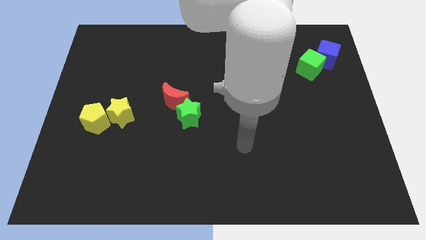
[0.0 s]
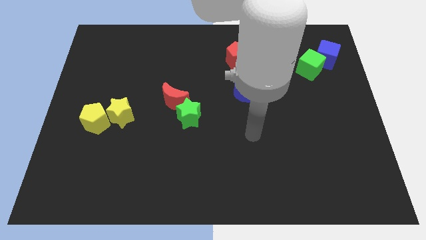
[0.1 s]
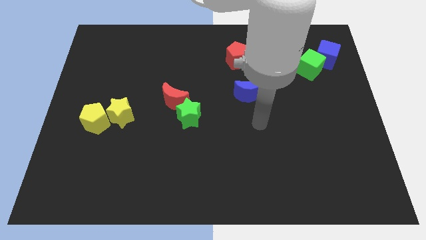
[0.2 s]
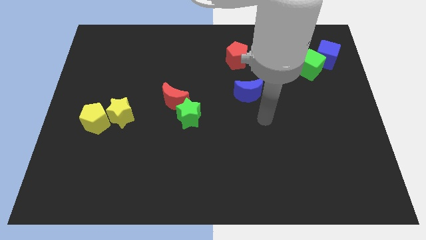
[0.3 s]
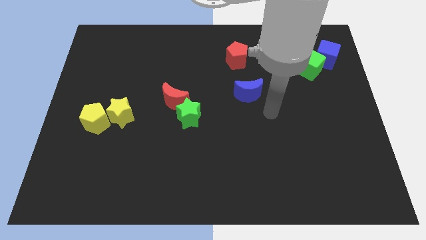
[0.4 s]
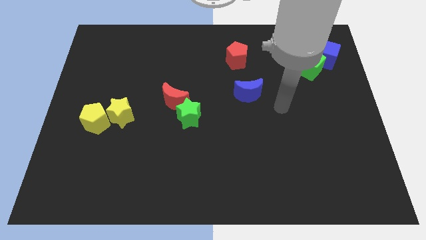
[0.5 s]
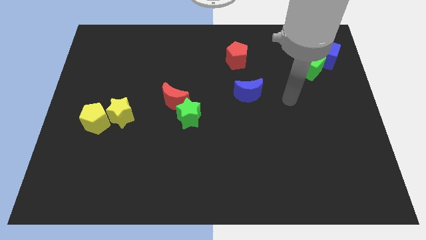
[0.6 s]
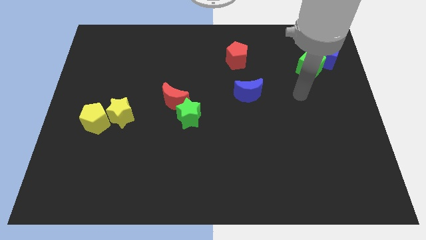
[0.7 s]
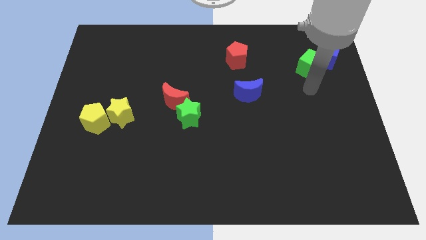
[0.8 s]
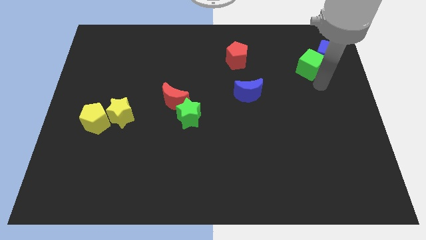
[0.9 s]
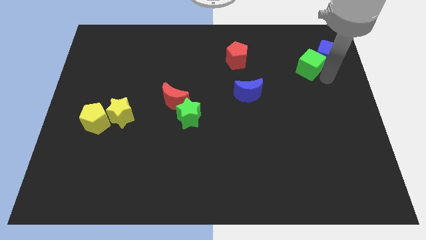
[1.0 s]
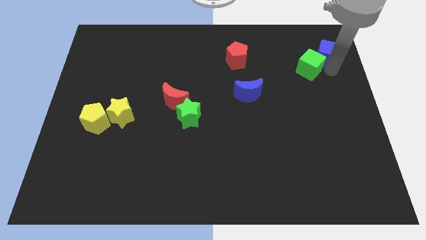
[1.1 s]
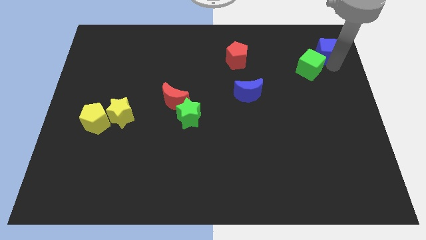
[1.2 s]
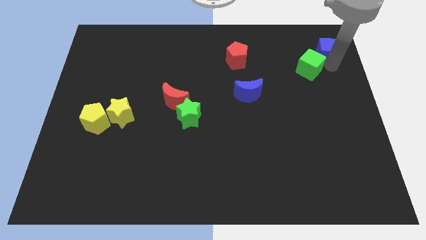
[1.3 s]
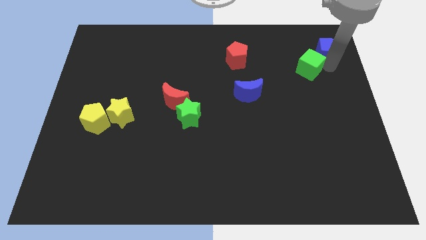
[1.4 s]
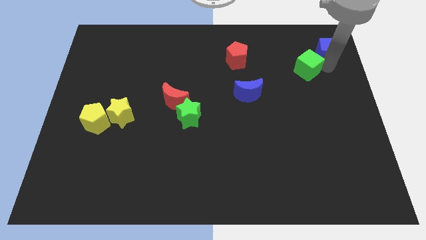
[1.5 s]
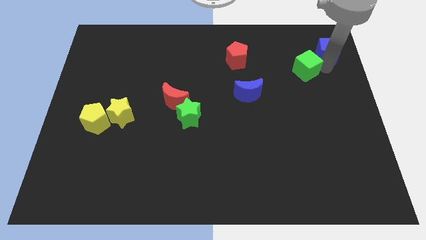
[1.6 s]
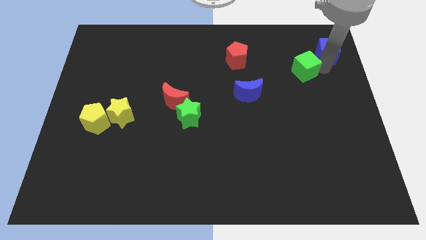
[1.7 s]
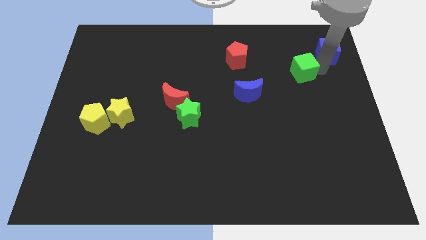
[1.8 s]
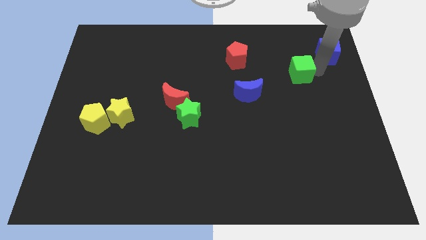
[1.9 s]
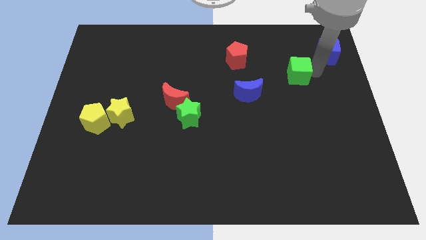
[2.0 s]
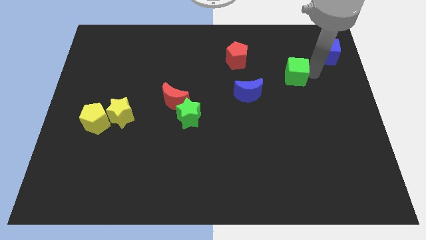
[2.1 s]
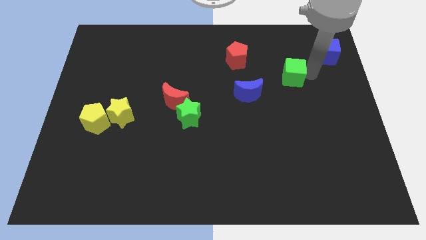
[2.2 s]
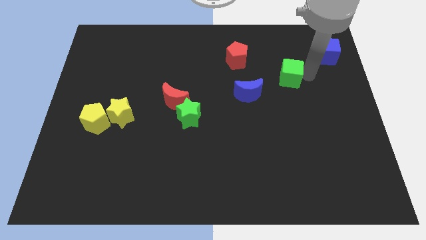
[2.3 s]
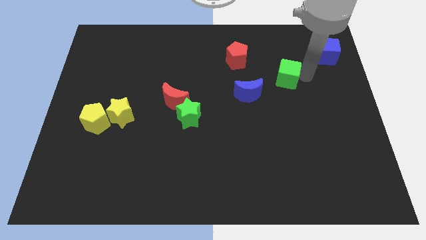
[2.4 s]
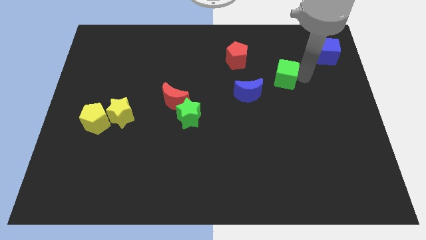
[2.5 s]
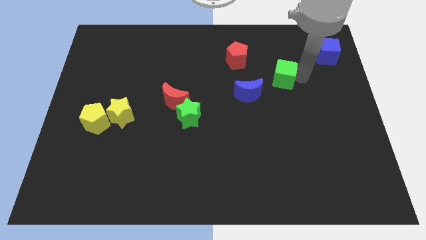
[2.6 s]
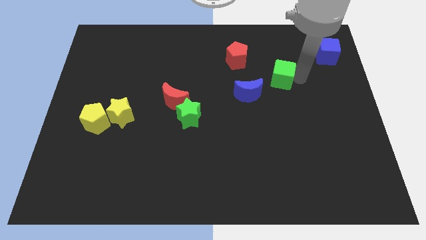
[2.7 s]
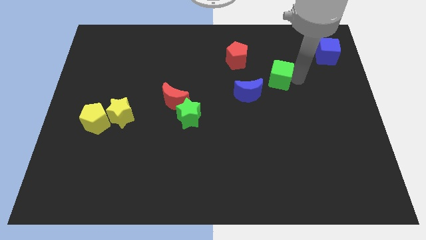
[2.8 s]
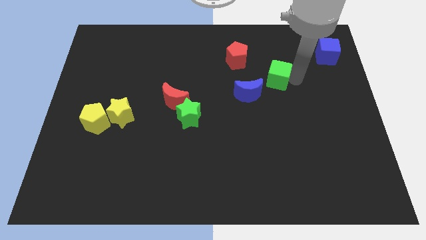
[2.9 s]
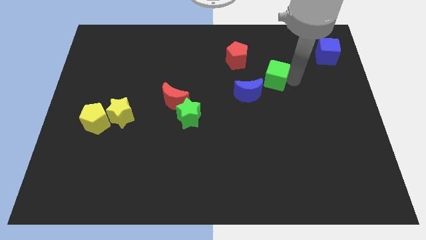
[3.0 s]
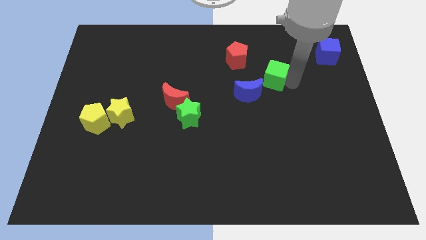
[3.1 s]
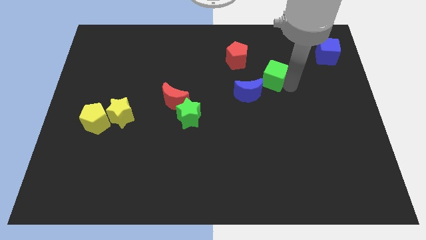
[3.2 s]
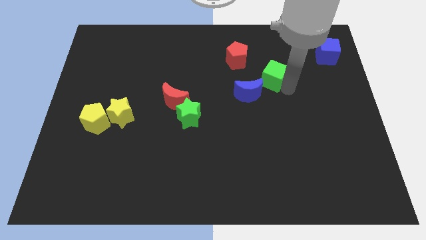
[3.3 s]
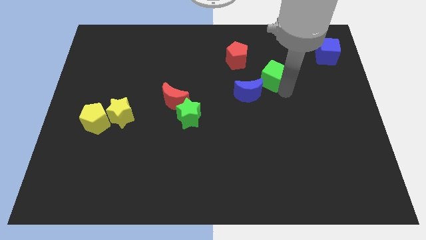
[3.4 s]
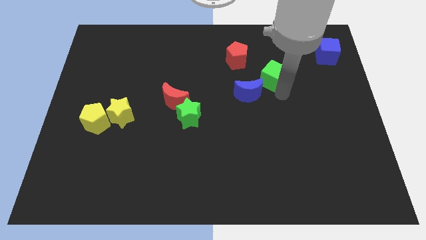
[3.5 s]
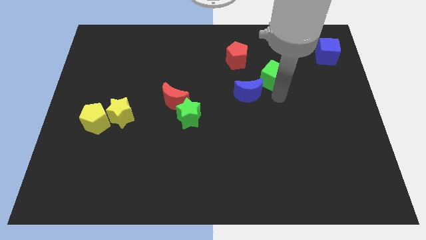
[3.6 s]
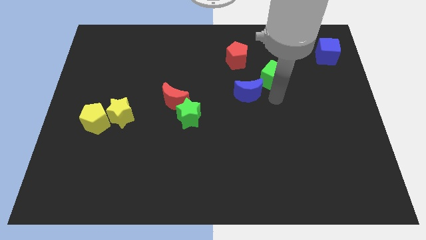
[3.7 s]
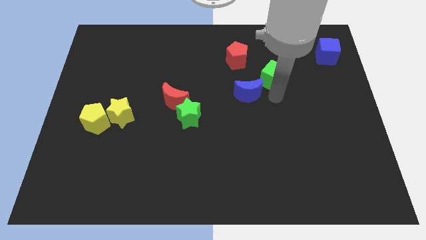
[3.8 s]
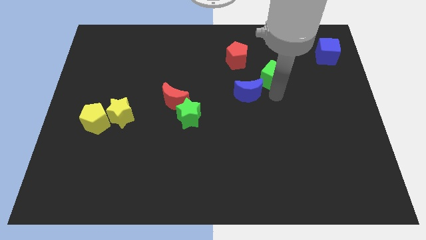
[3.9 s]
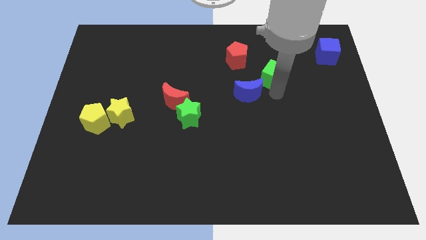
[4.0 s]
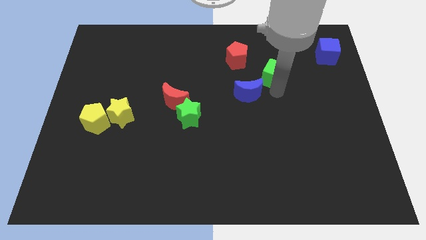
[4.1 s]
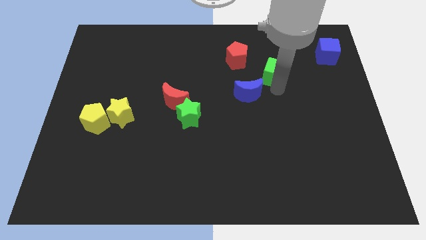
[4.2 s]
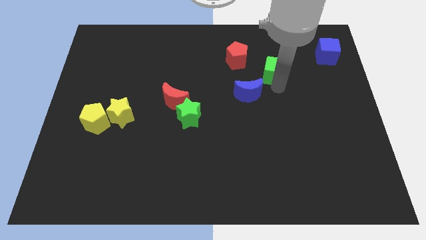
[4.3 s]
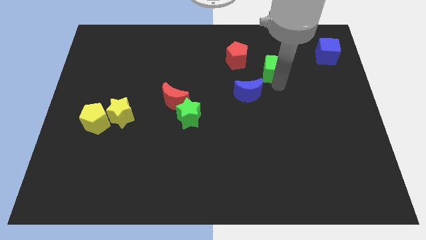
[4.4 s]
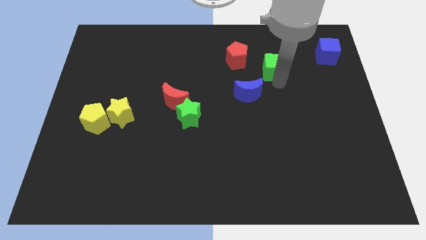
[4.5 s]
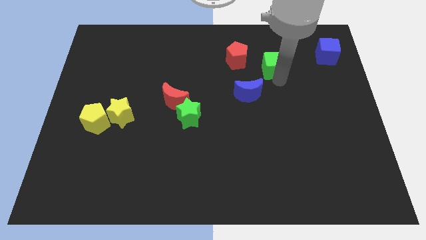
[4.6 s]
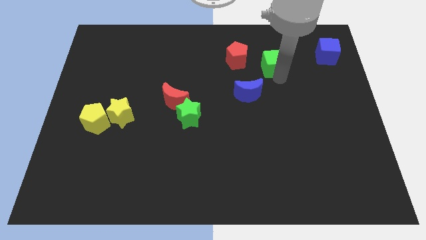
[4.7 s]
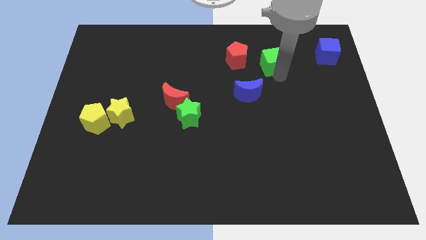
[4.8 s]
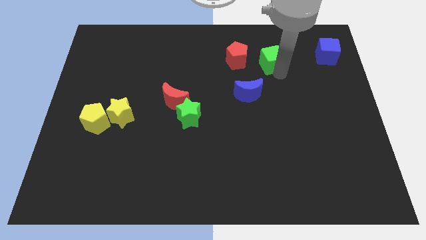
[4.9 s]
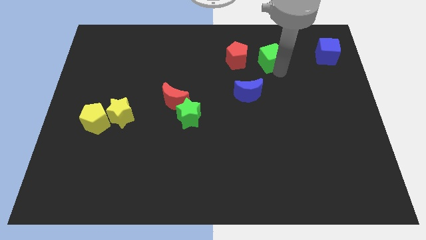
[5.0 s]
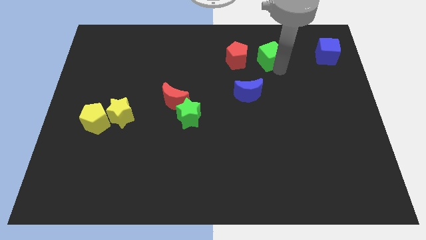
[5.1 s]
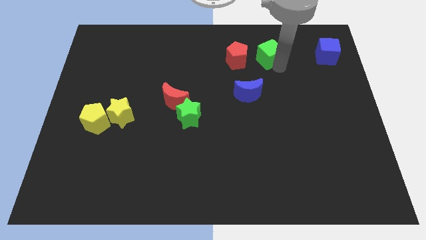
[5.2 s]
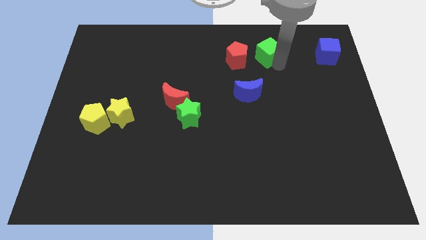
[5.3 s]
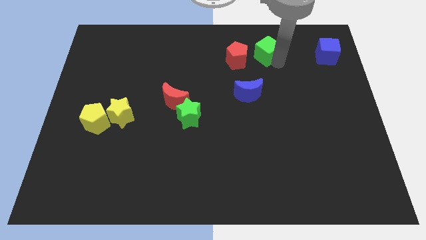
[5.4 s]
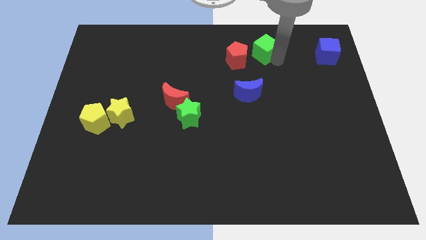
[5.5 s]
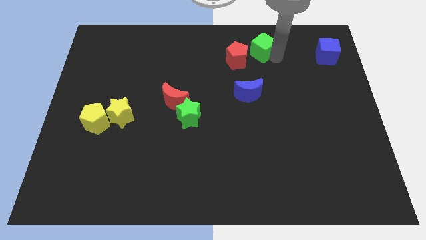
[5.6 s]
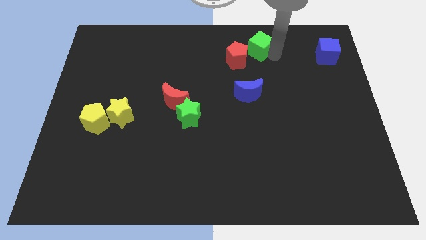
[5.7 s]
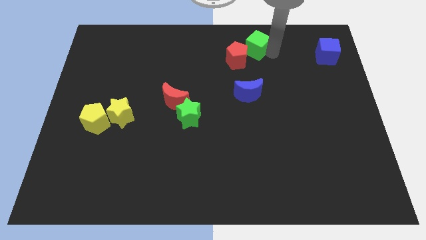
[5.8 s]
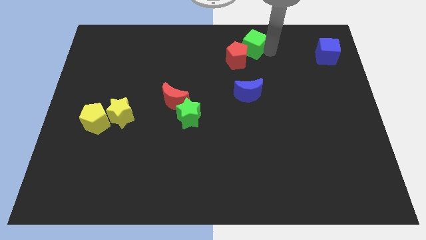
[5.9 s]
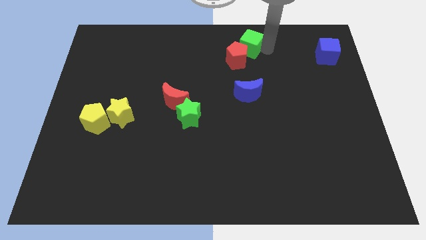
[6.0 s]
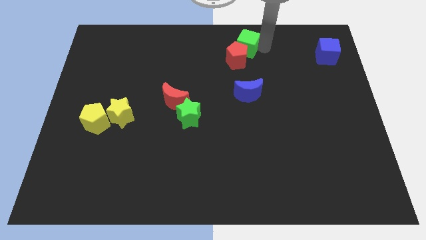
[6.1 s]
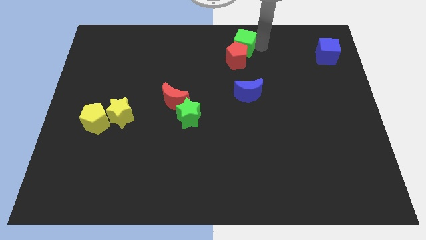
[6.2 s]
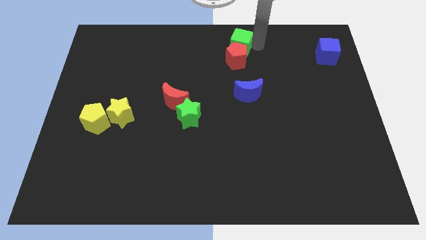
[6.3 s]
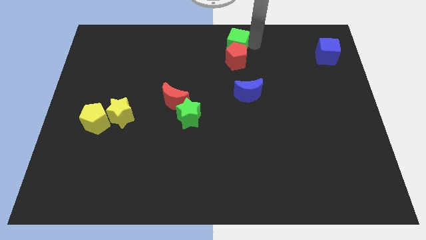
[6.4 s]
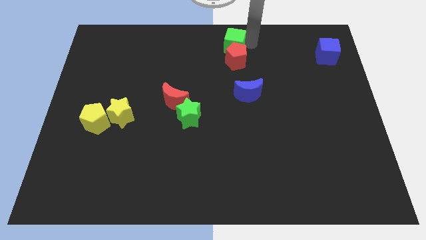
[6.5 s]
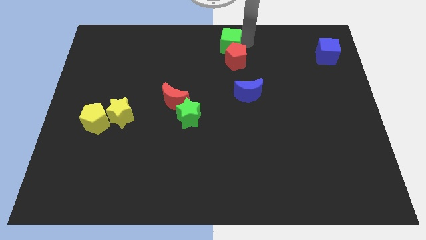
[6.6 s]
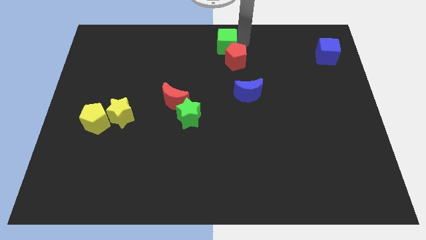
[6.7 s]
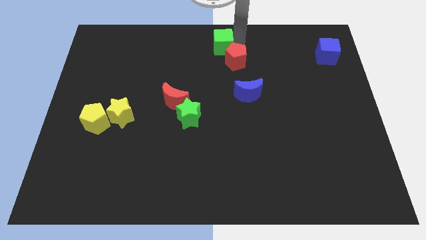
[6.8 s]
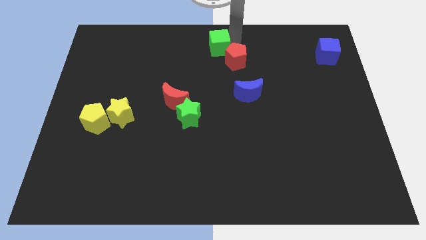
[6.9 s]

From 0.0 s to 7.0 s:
slide the green cube to the left

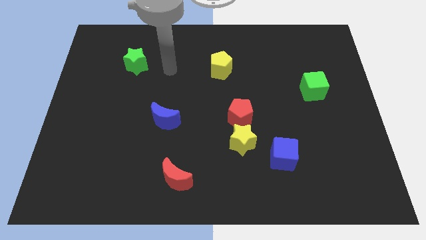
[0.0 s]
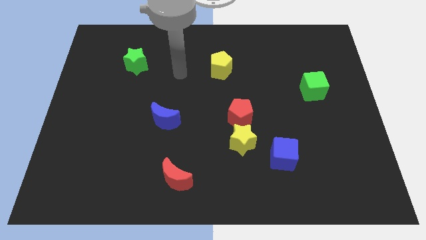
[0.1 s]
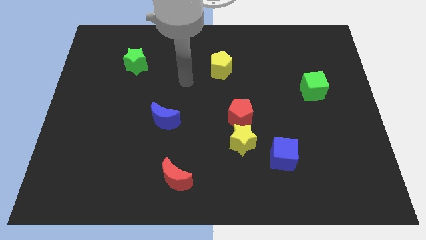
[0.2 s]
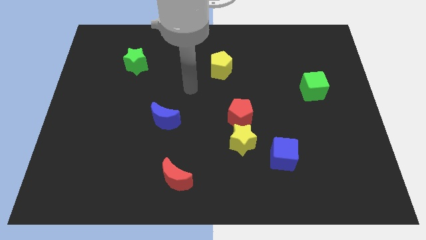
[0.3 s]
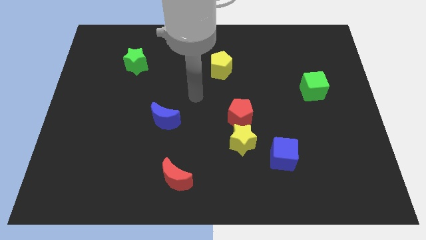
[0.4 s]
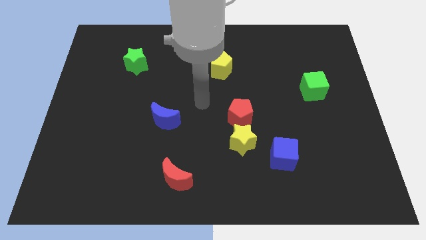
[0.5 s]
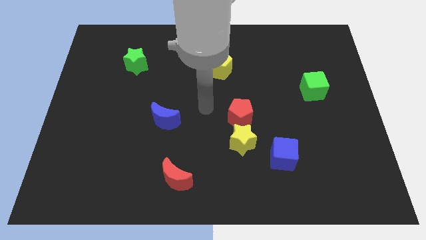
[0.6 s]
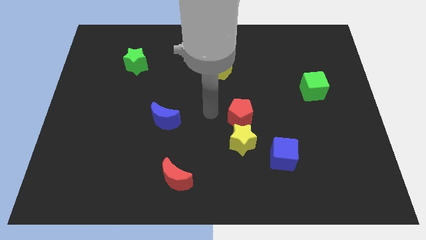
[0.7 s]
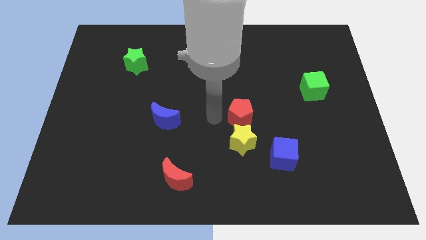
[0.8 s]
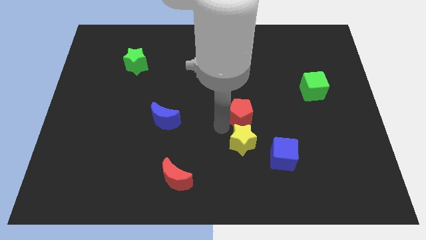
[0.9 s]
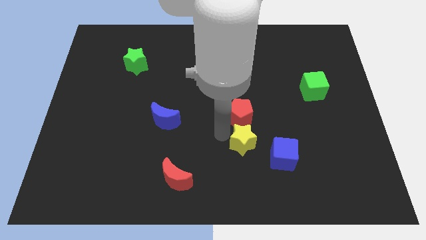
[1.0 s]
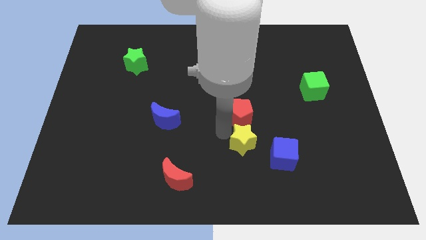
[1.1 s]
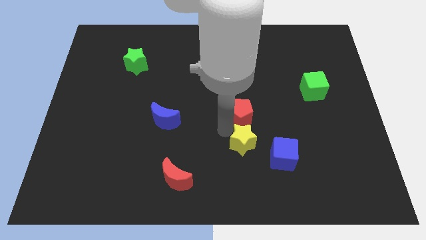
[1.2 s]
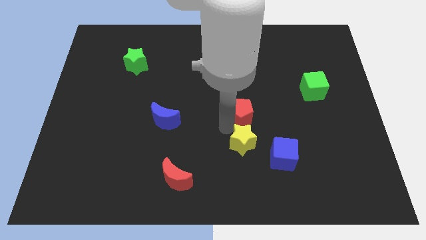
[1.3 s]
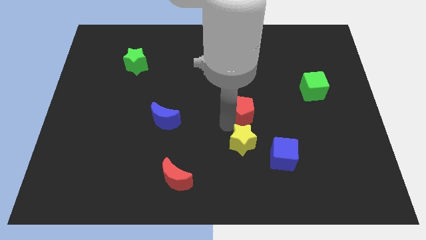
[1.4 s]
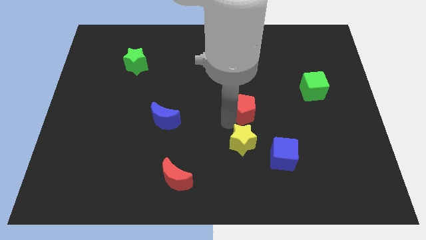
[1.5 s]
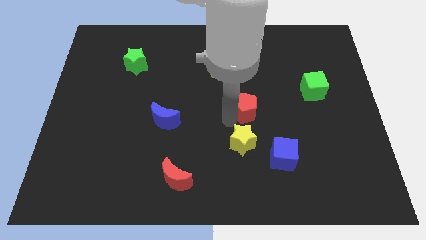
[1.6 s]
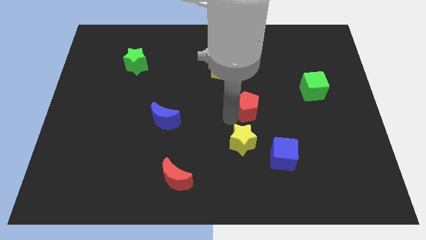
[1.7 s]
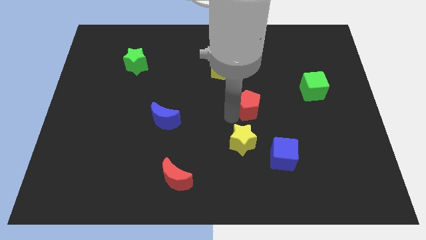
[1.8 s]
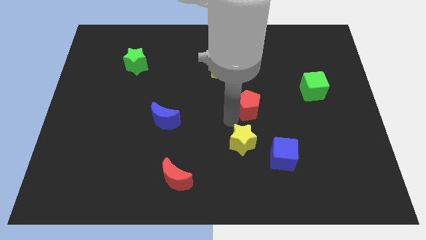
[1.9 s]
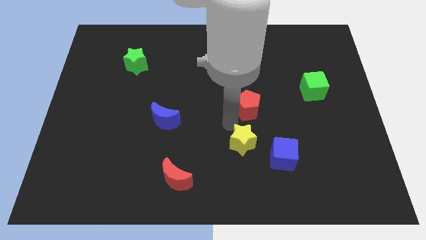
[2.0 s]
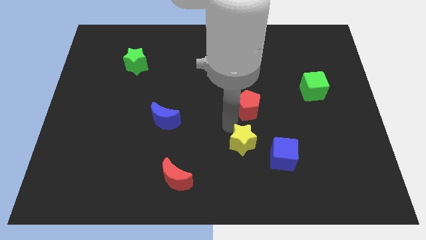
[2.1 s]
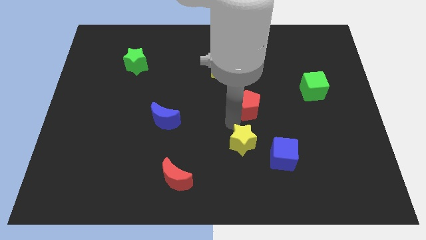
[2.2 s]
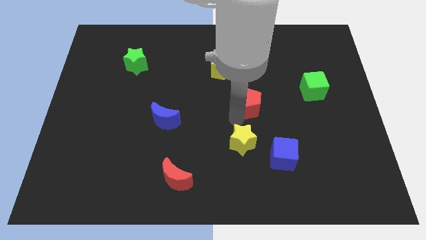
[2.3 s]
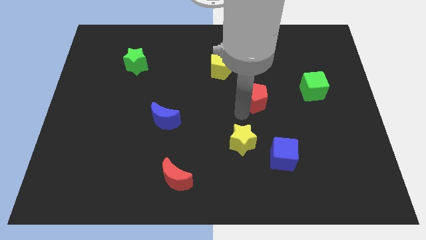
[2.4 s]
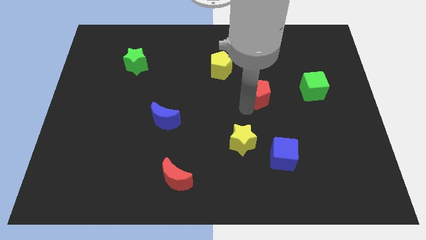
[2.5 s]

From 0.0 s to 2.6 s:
push the red pentagon somewhat up and then to the right
